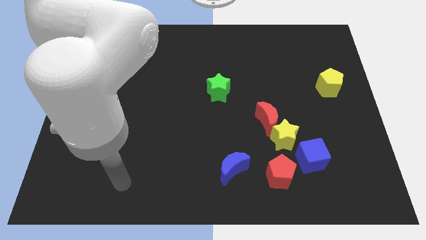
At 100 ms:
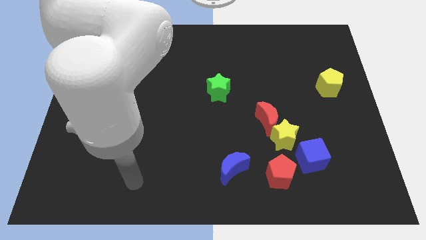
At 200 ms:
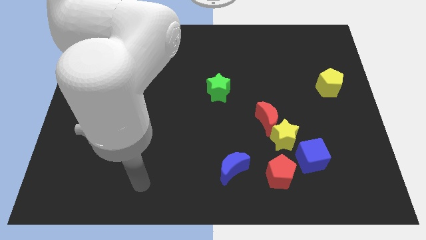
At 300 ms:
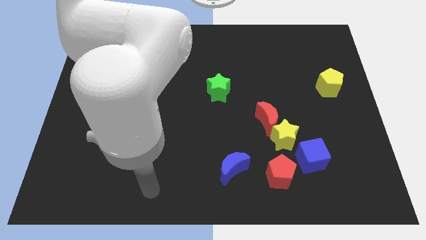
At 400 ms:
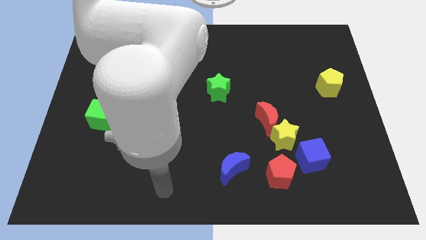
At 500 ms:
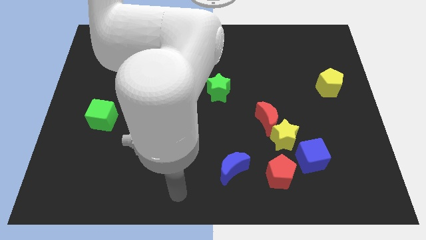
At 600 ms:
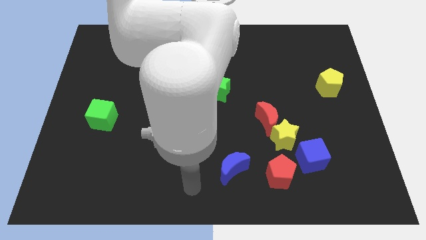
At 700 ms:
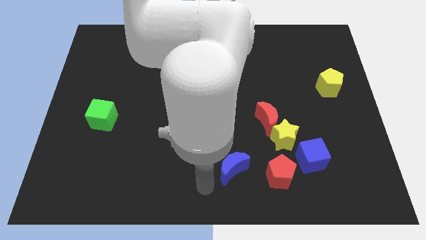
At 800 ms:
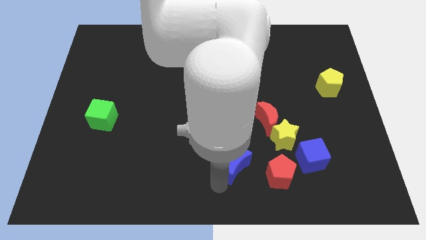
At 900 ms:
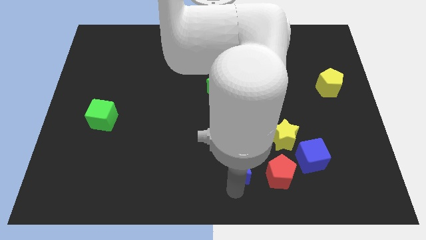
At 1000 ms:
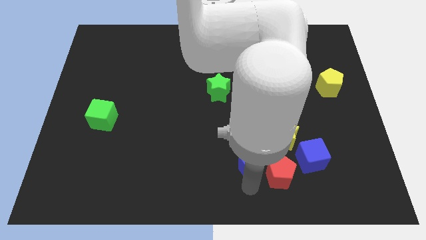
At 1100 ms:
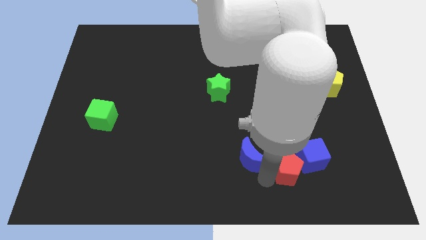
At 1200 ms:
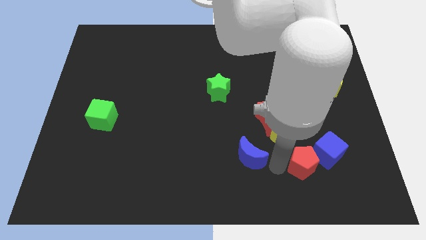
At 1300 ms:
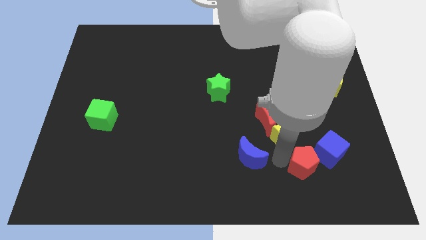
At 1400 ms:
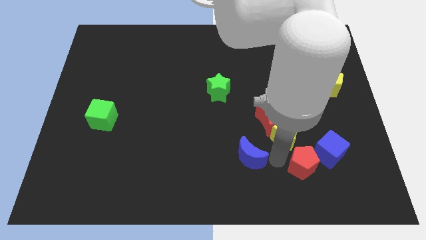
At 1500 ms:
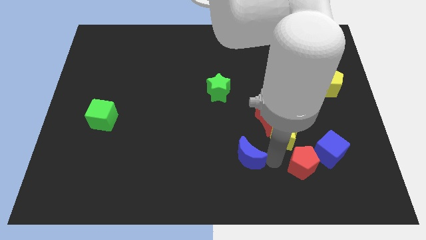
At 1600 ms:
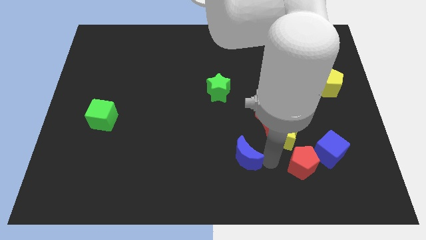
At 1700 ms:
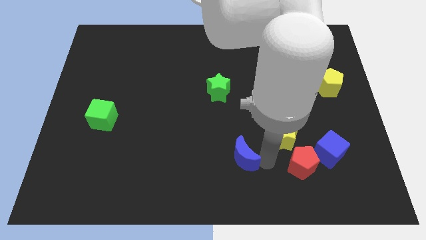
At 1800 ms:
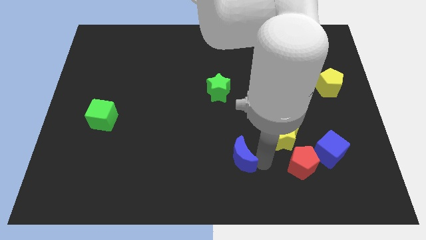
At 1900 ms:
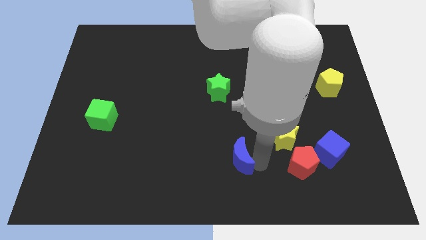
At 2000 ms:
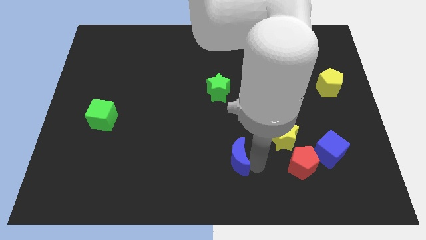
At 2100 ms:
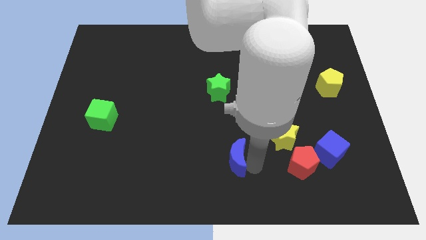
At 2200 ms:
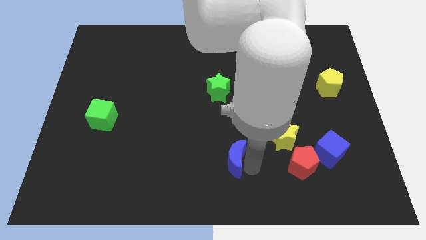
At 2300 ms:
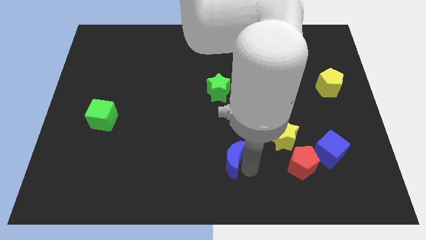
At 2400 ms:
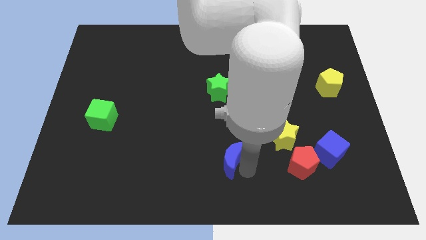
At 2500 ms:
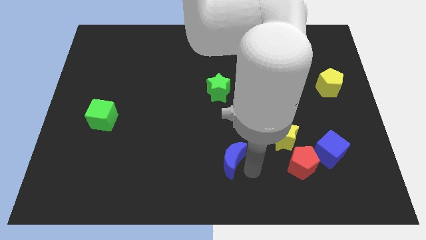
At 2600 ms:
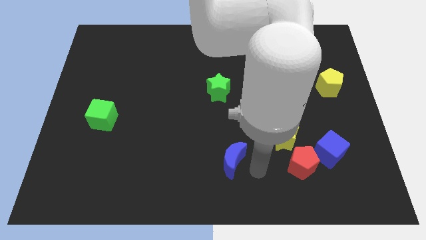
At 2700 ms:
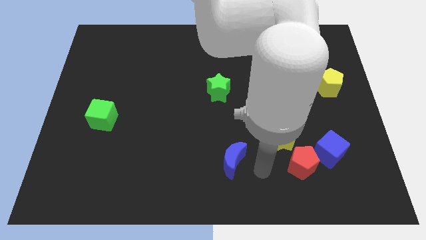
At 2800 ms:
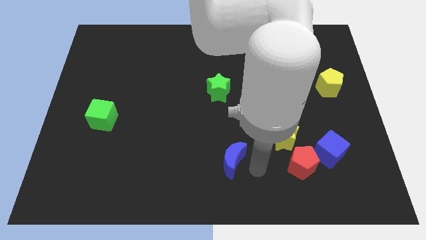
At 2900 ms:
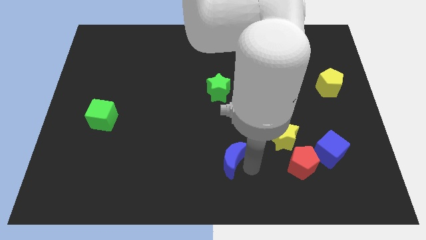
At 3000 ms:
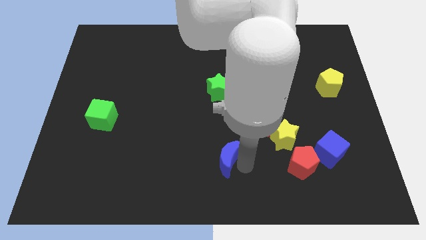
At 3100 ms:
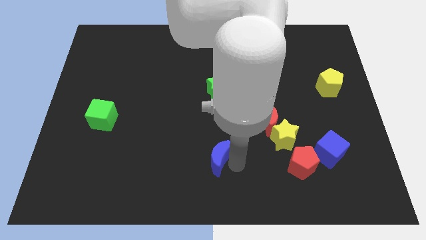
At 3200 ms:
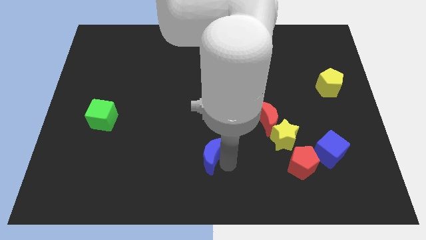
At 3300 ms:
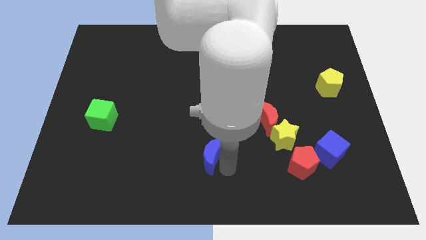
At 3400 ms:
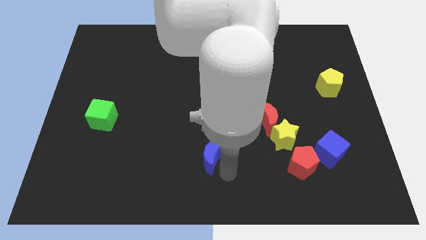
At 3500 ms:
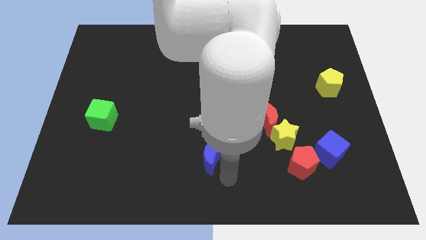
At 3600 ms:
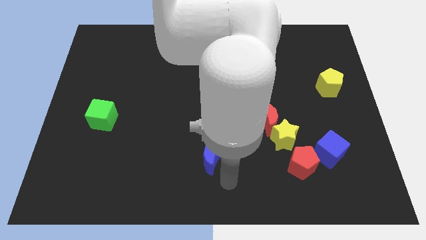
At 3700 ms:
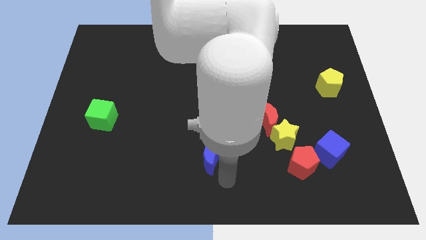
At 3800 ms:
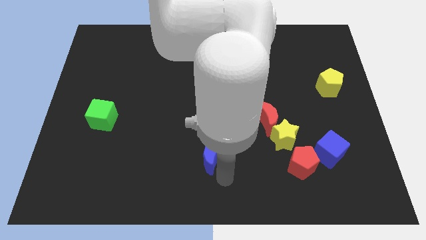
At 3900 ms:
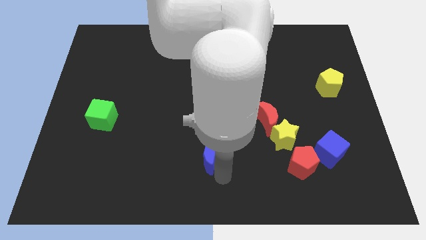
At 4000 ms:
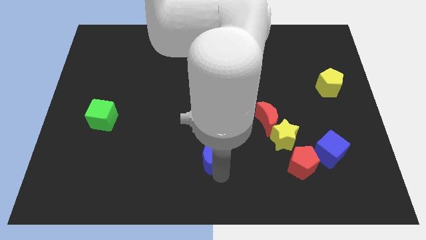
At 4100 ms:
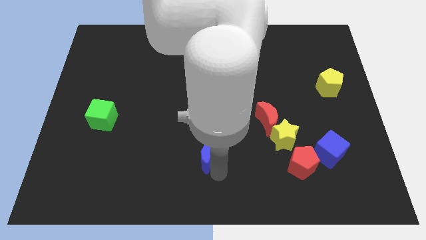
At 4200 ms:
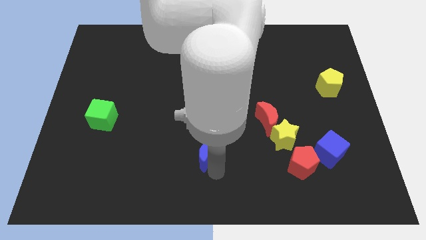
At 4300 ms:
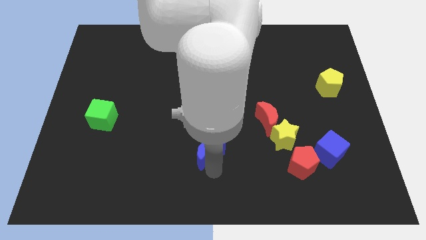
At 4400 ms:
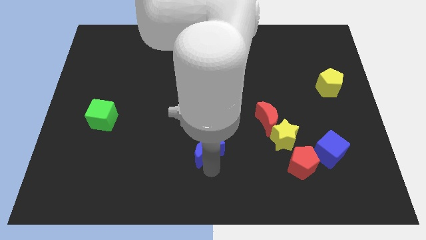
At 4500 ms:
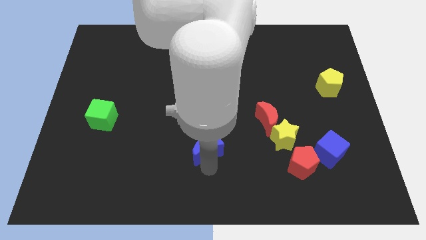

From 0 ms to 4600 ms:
slightly slide the blue moon upwards and to the left diagonally

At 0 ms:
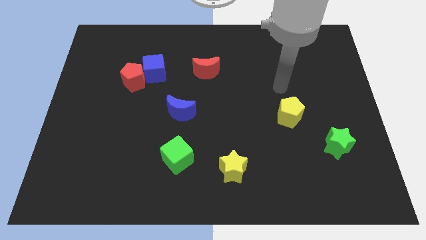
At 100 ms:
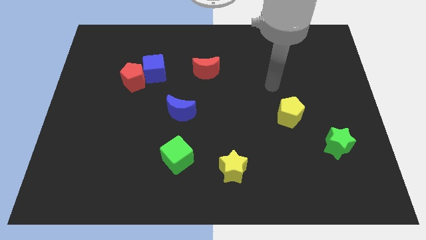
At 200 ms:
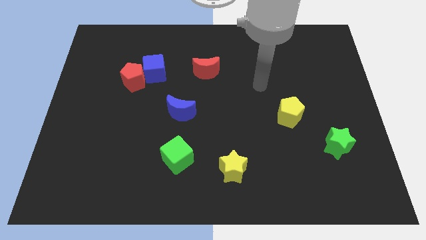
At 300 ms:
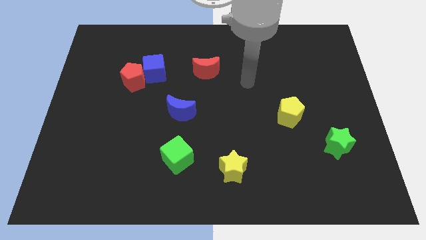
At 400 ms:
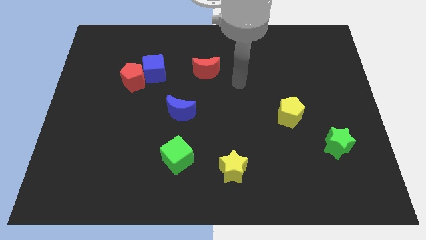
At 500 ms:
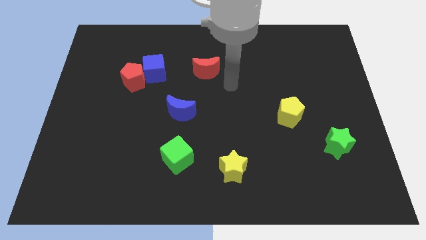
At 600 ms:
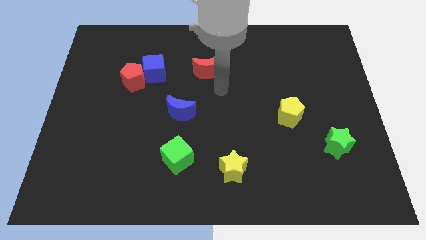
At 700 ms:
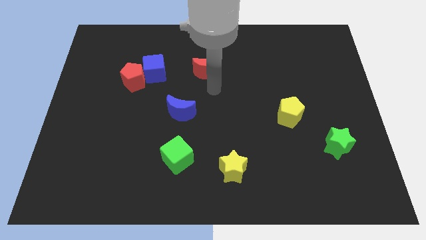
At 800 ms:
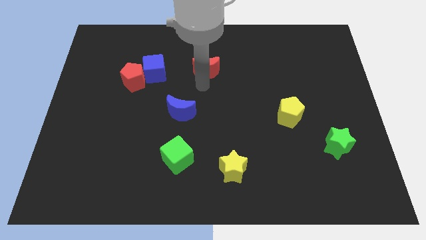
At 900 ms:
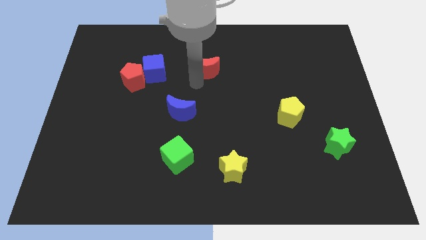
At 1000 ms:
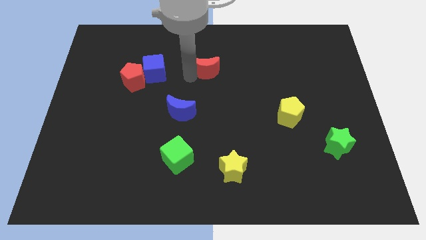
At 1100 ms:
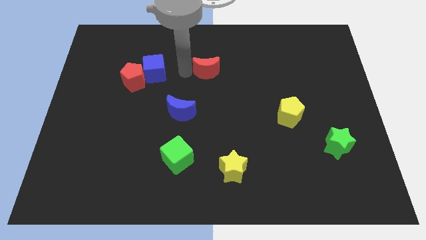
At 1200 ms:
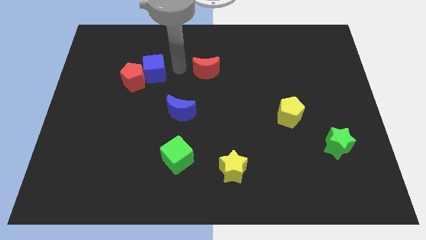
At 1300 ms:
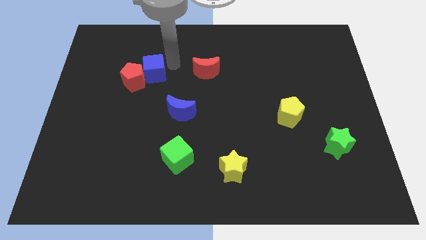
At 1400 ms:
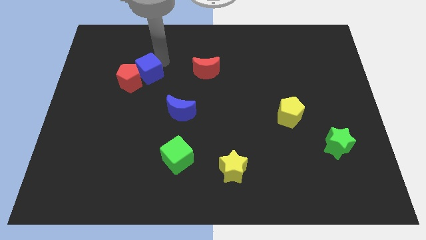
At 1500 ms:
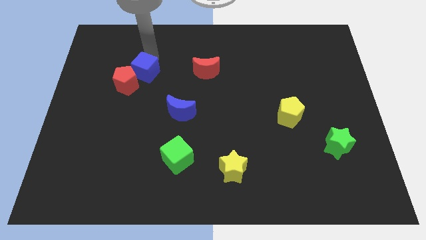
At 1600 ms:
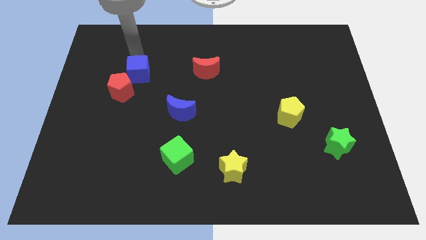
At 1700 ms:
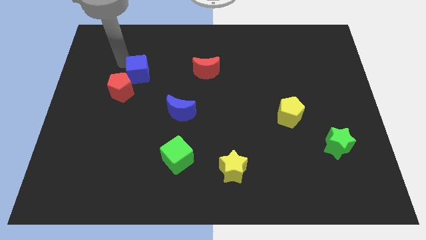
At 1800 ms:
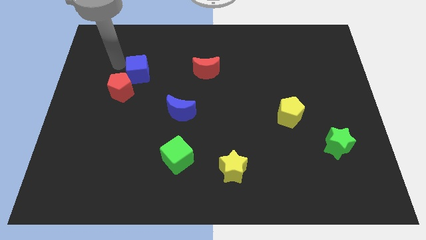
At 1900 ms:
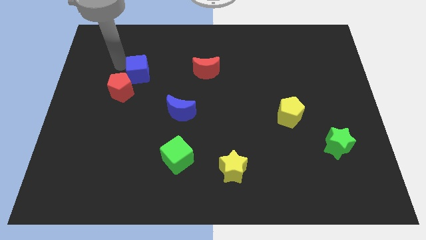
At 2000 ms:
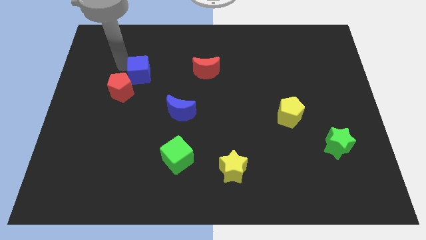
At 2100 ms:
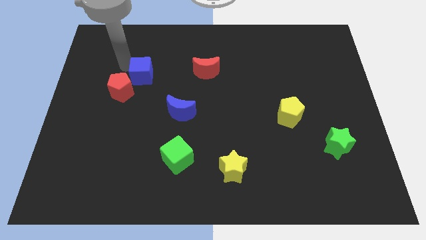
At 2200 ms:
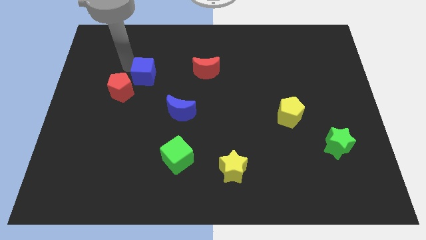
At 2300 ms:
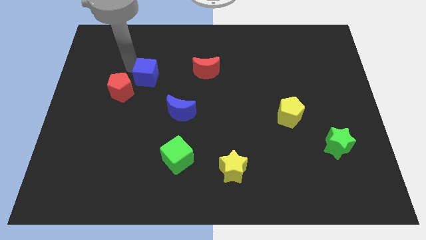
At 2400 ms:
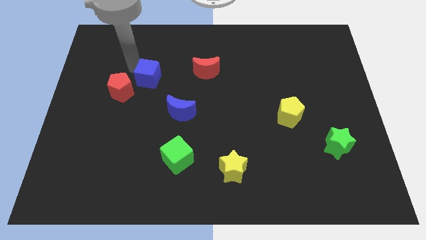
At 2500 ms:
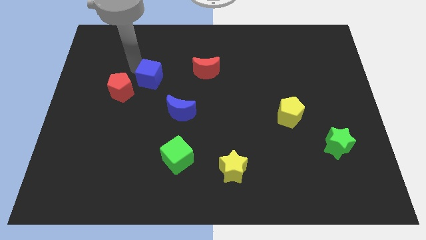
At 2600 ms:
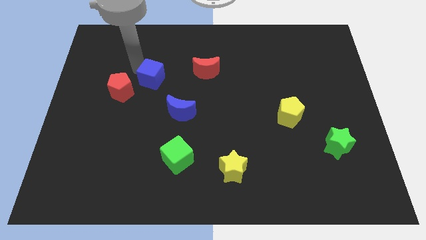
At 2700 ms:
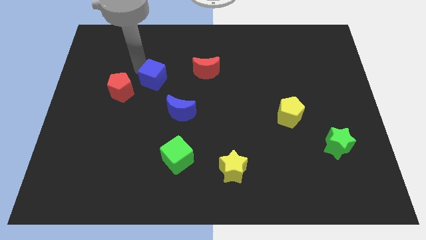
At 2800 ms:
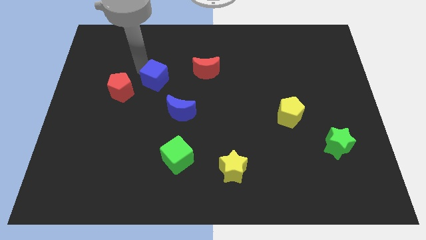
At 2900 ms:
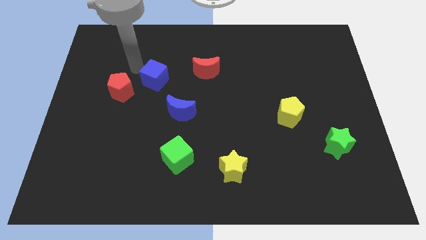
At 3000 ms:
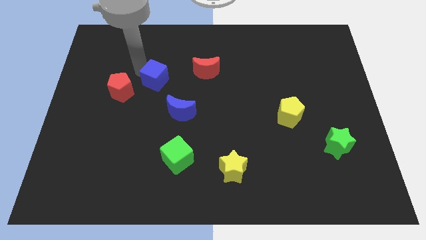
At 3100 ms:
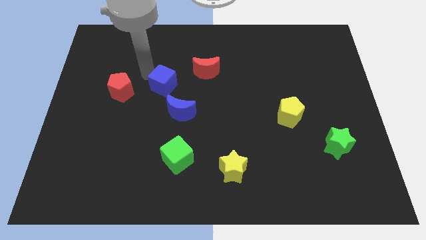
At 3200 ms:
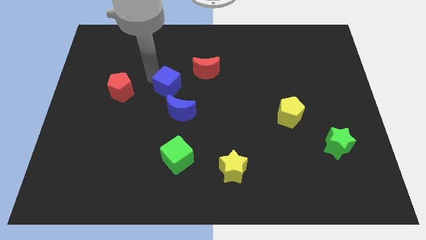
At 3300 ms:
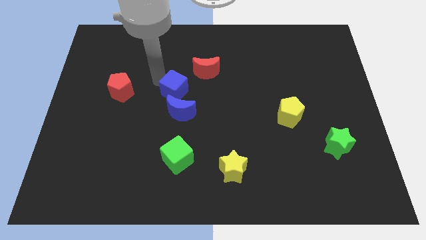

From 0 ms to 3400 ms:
slightly move the blue cube downwards and then right

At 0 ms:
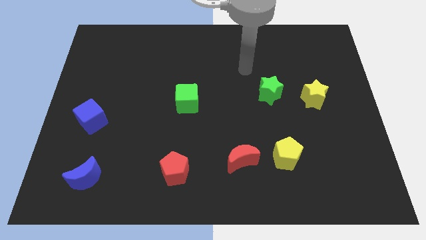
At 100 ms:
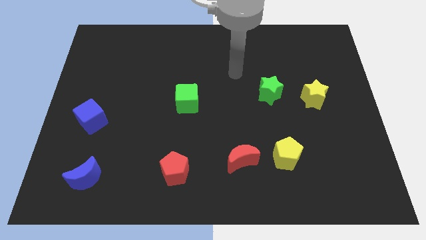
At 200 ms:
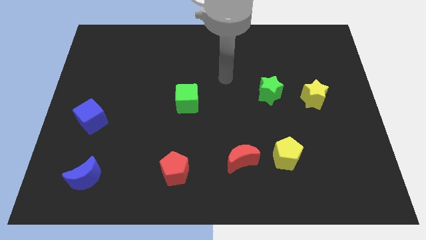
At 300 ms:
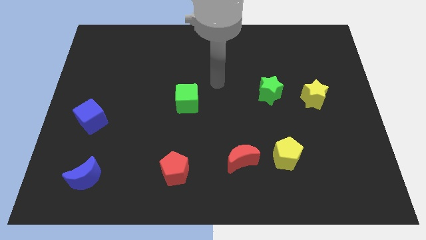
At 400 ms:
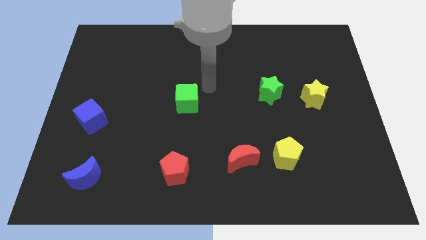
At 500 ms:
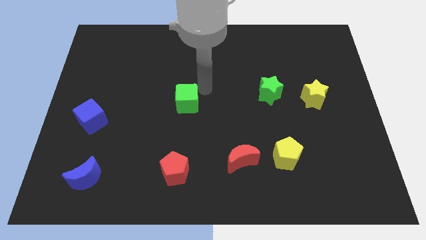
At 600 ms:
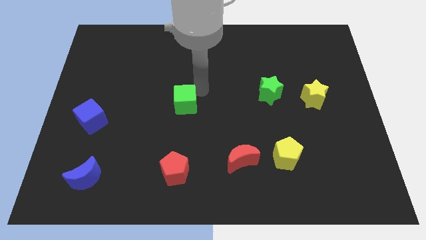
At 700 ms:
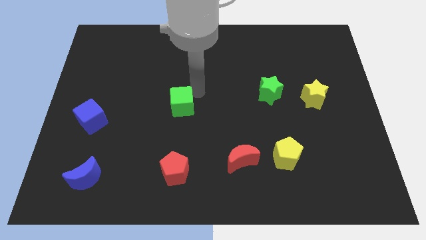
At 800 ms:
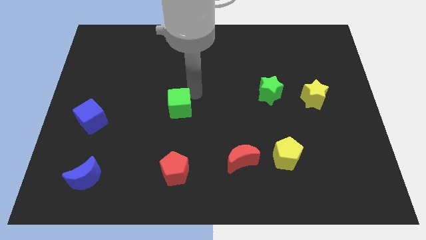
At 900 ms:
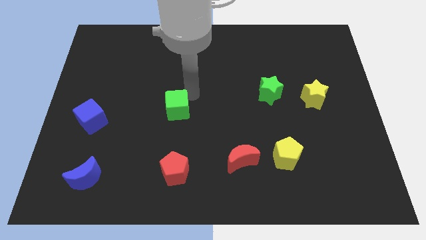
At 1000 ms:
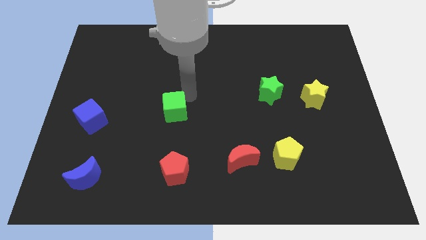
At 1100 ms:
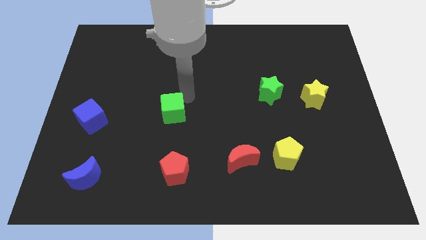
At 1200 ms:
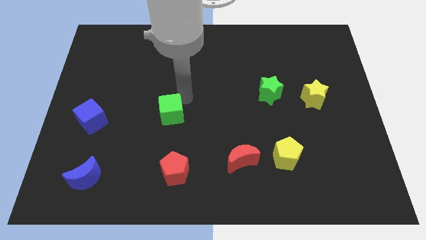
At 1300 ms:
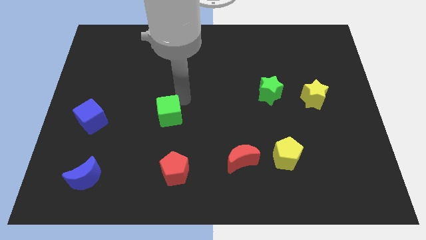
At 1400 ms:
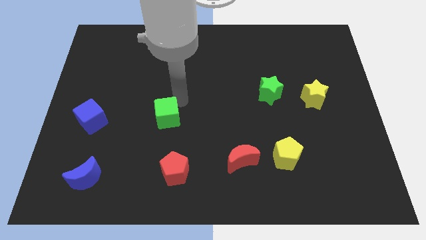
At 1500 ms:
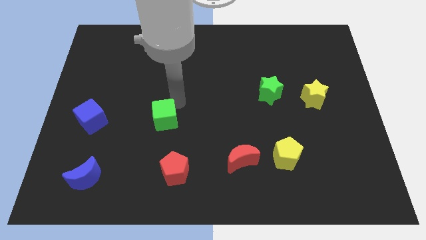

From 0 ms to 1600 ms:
slightly push the green cube down and to the left diagonally
